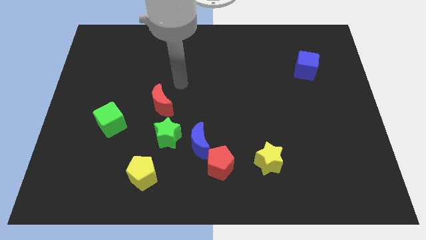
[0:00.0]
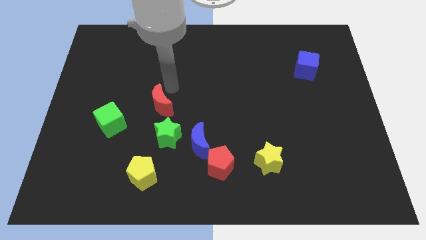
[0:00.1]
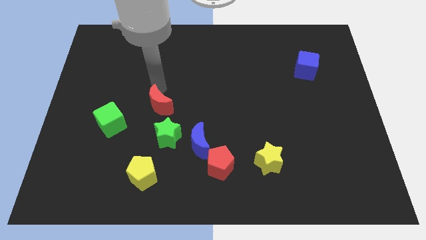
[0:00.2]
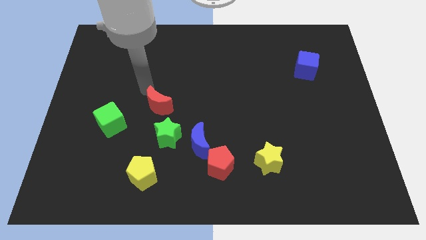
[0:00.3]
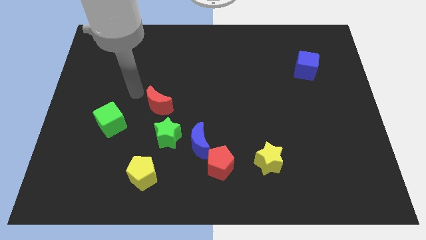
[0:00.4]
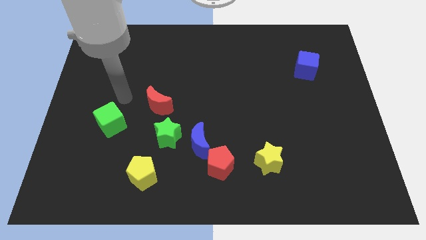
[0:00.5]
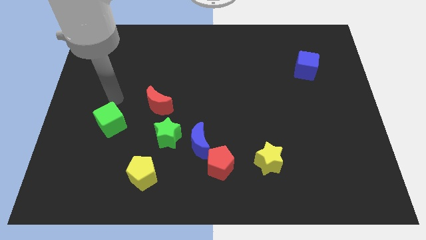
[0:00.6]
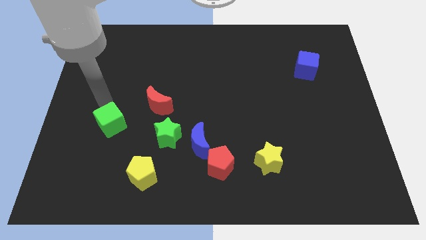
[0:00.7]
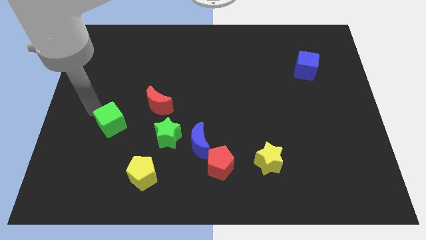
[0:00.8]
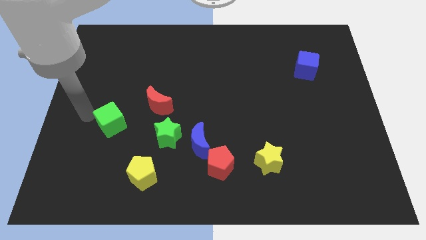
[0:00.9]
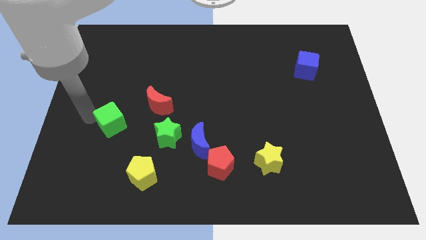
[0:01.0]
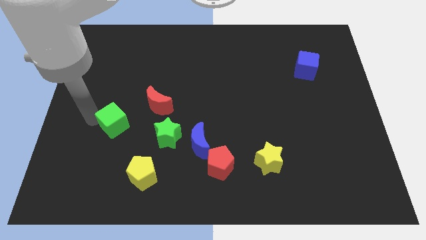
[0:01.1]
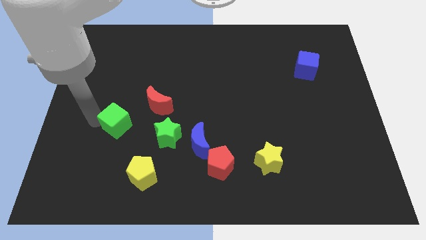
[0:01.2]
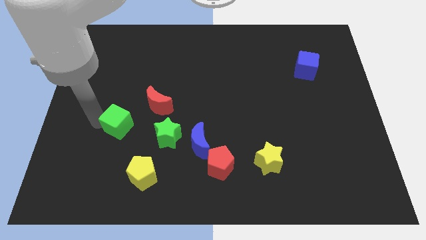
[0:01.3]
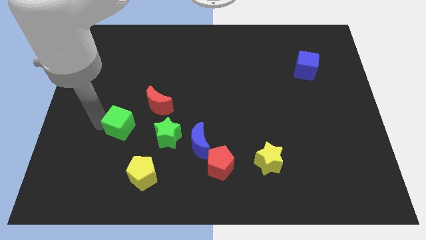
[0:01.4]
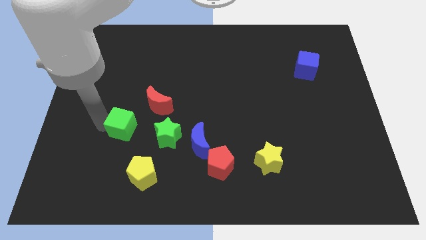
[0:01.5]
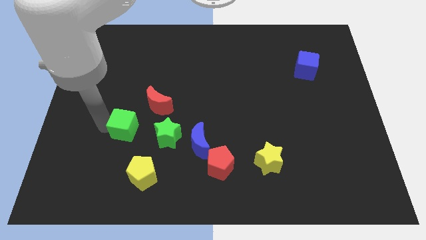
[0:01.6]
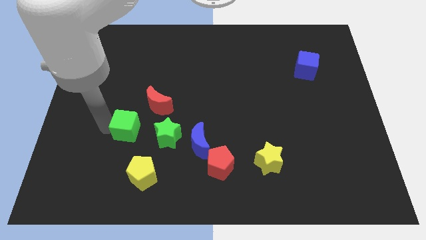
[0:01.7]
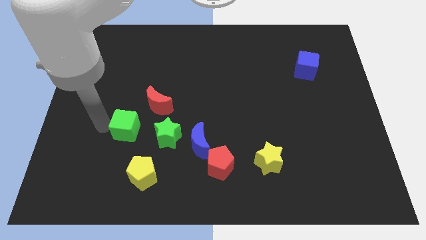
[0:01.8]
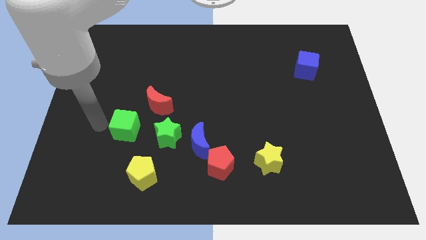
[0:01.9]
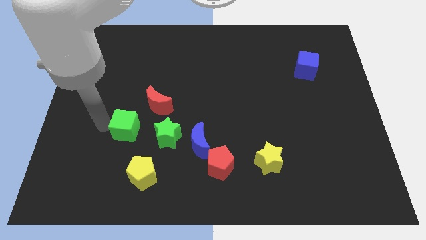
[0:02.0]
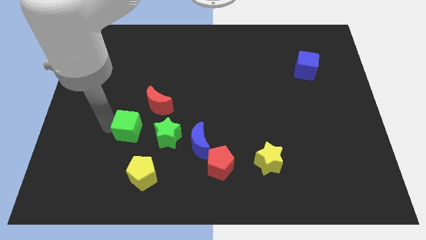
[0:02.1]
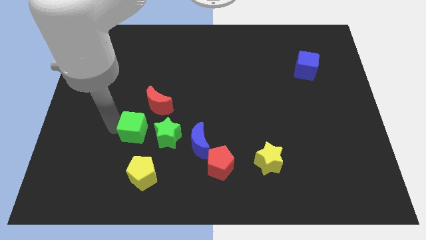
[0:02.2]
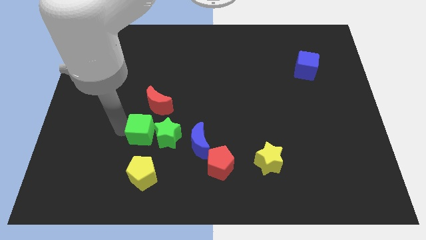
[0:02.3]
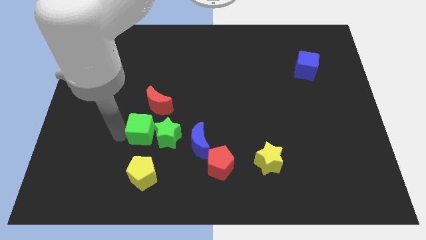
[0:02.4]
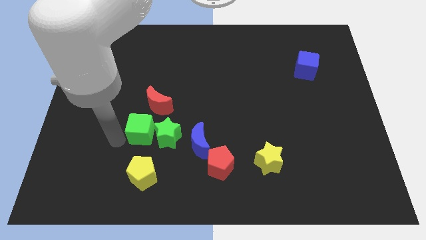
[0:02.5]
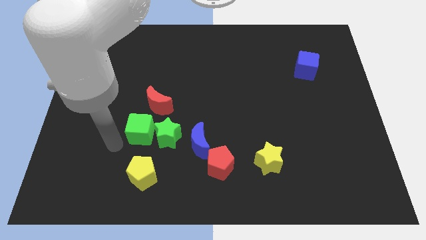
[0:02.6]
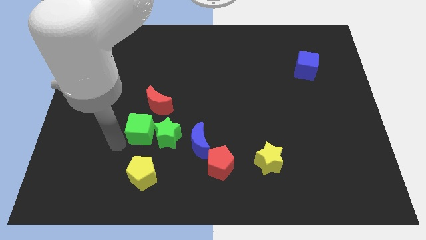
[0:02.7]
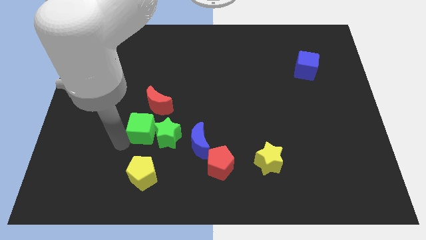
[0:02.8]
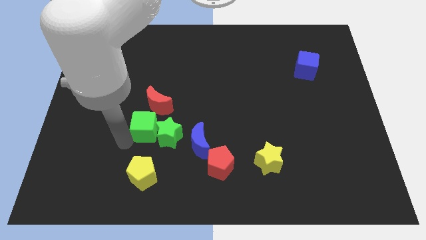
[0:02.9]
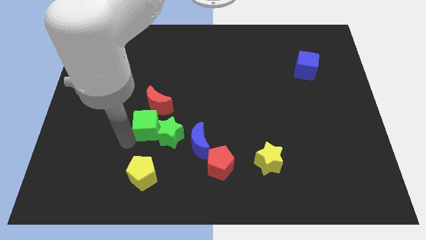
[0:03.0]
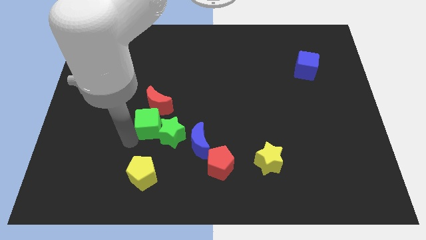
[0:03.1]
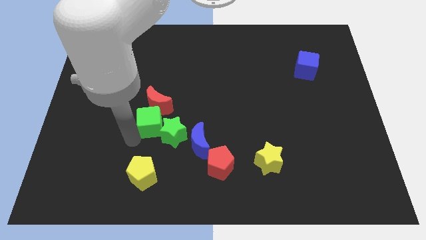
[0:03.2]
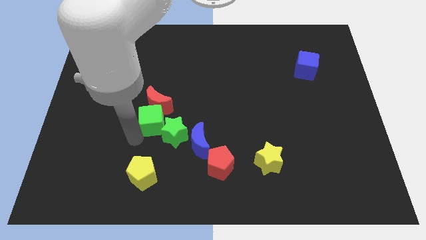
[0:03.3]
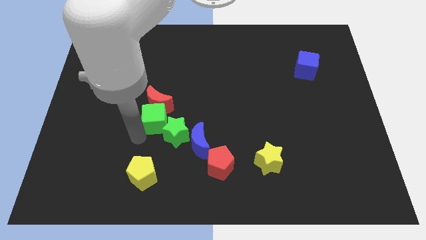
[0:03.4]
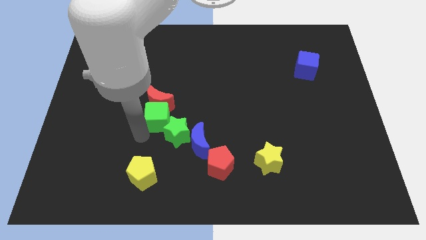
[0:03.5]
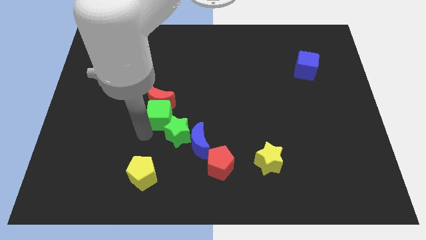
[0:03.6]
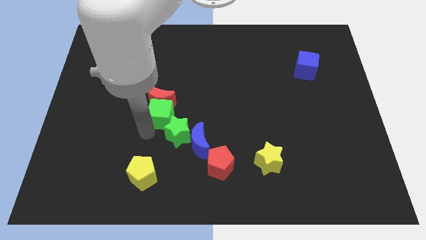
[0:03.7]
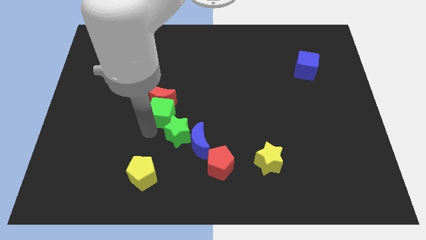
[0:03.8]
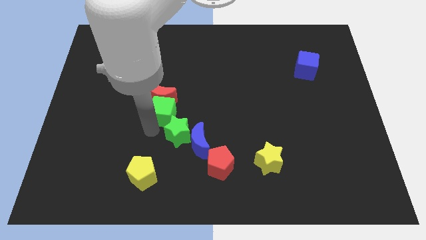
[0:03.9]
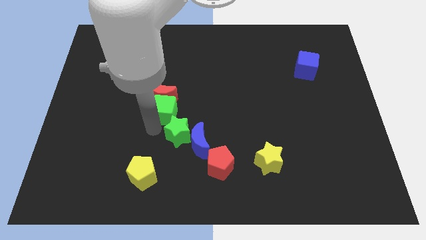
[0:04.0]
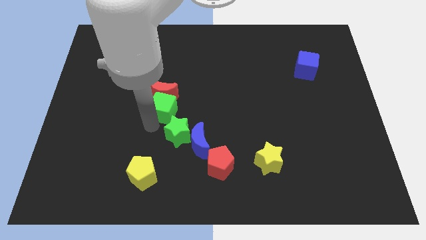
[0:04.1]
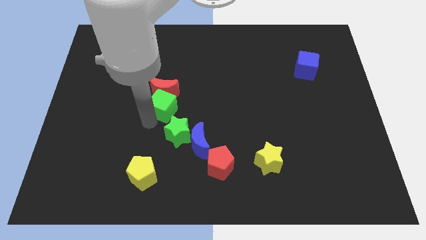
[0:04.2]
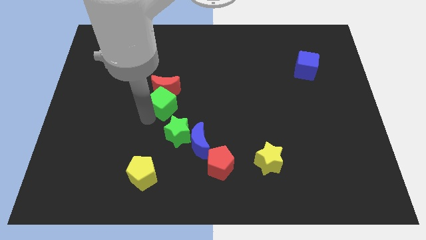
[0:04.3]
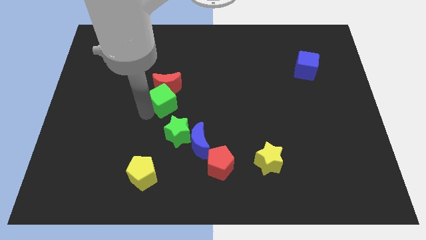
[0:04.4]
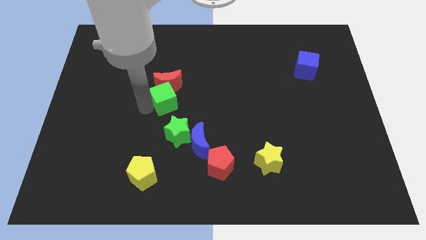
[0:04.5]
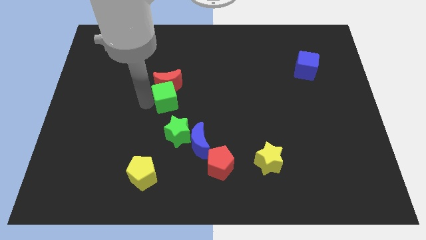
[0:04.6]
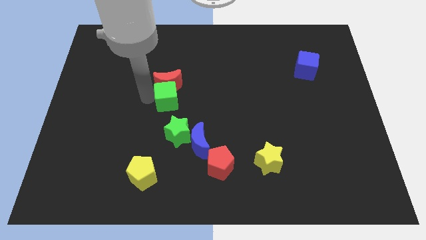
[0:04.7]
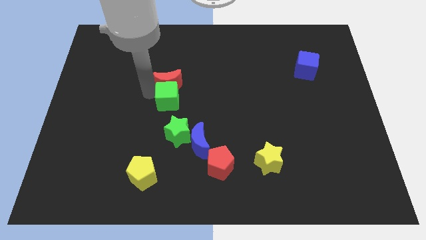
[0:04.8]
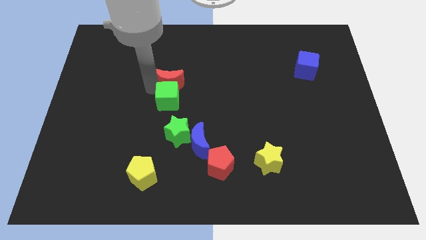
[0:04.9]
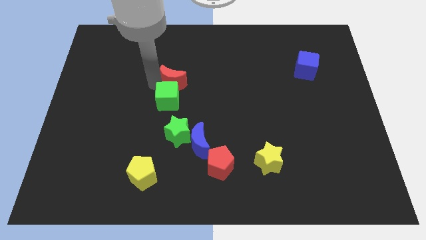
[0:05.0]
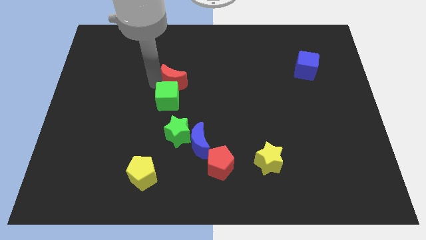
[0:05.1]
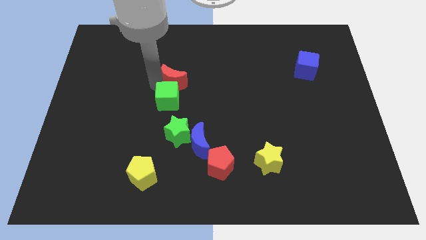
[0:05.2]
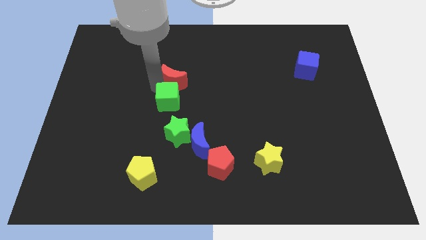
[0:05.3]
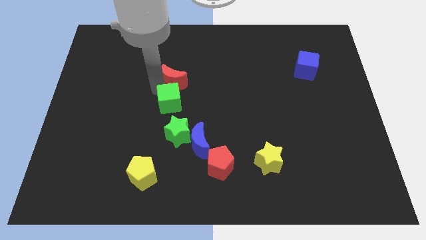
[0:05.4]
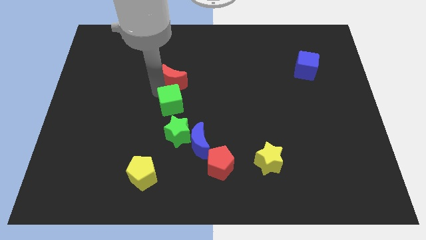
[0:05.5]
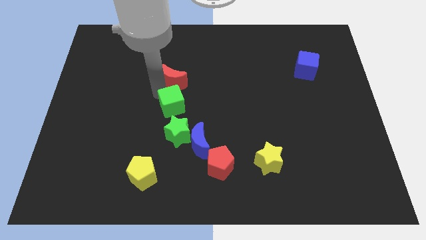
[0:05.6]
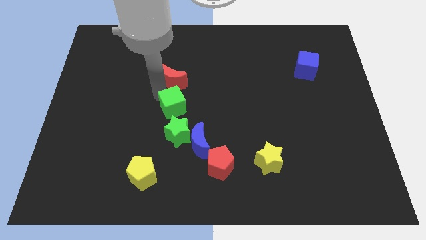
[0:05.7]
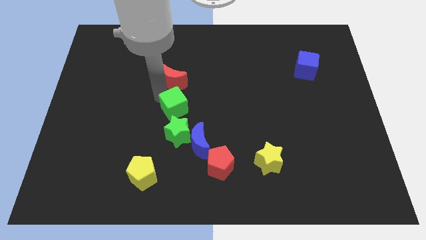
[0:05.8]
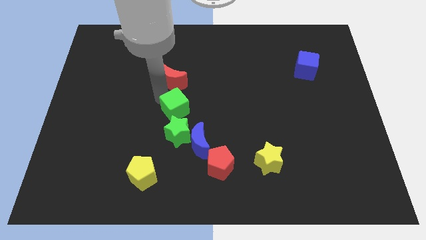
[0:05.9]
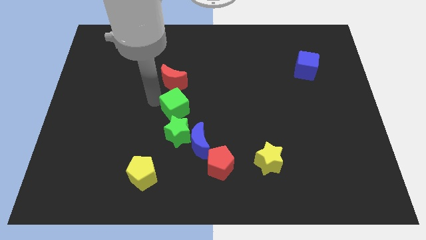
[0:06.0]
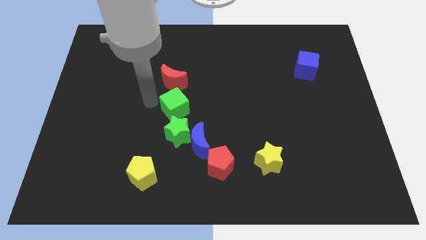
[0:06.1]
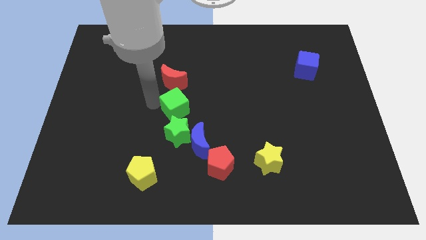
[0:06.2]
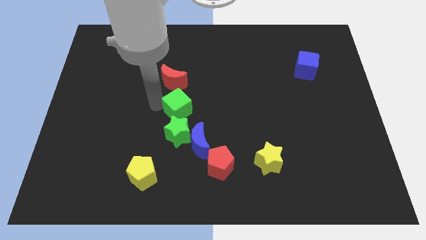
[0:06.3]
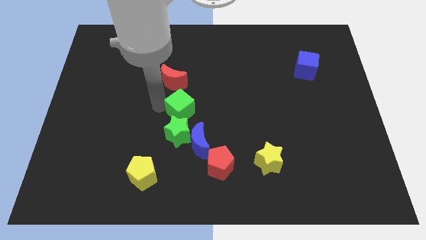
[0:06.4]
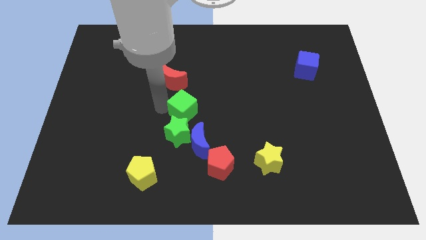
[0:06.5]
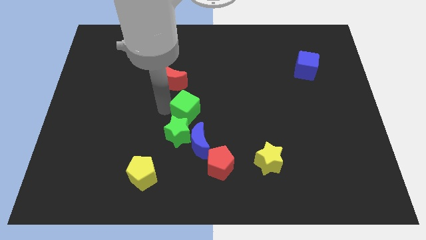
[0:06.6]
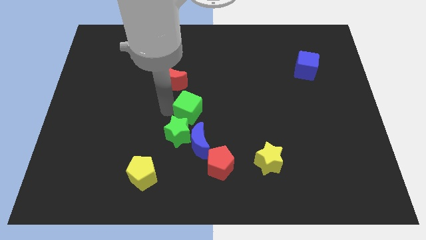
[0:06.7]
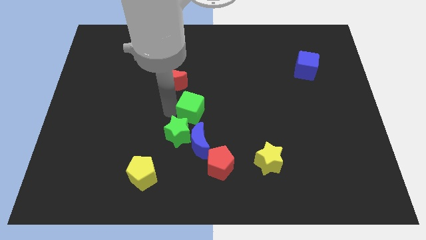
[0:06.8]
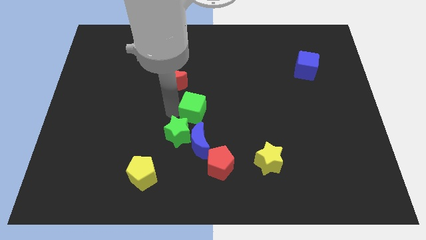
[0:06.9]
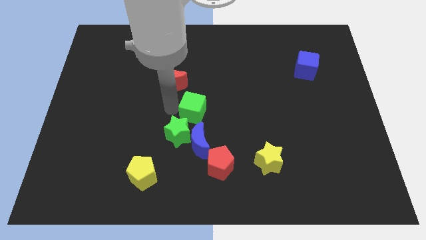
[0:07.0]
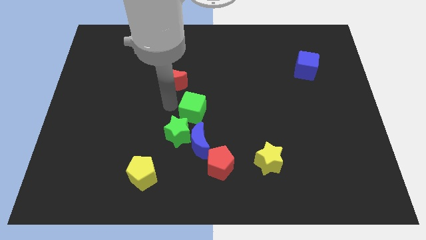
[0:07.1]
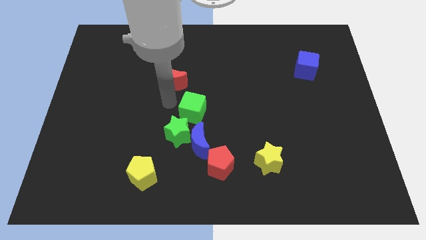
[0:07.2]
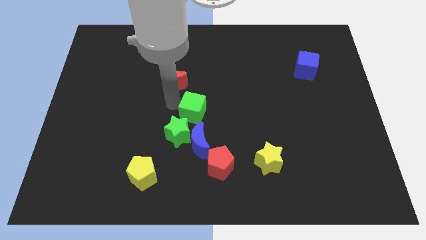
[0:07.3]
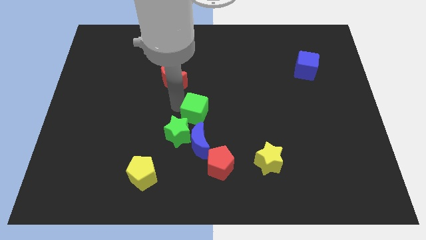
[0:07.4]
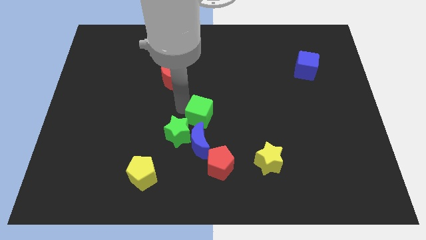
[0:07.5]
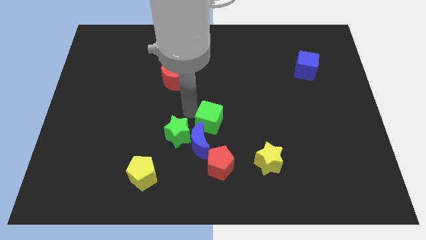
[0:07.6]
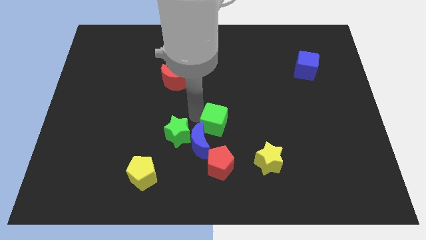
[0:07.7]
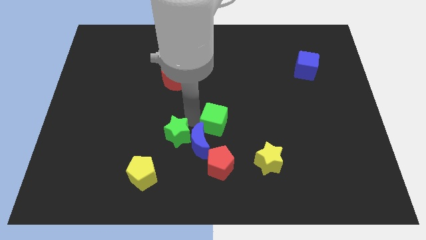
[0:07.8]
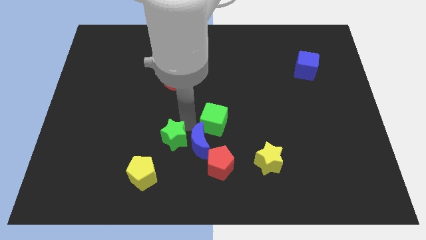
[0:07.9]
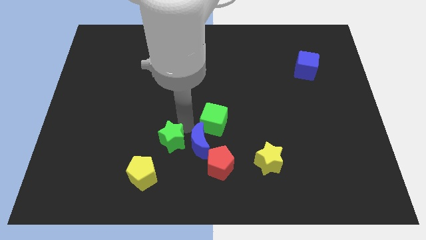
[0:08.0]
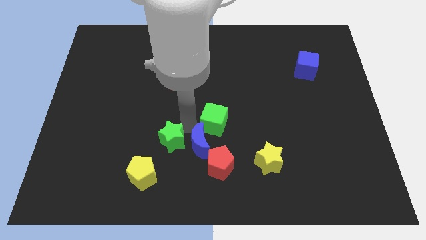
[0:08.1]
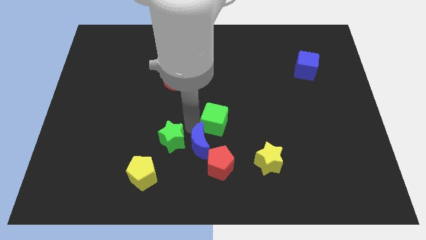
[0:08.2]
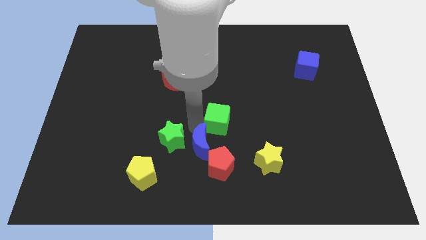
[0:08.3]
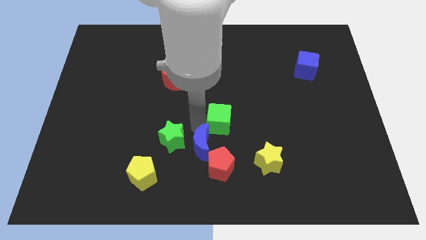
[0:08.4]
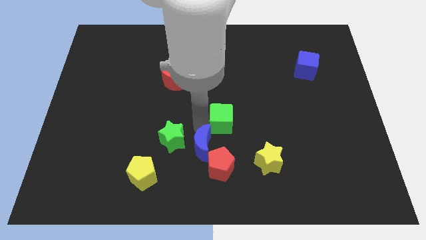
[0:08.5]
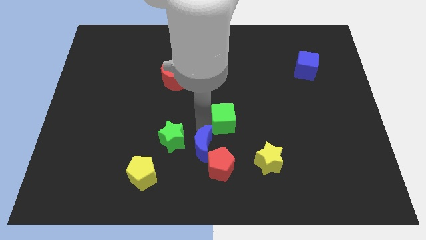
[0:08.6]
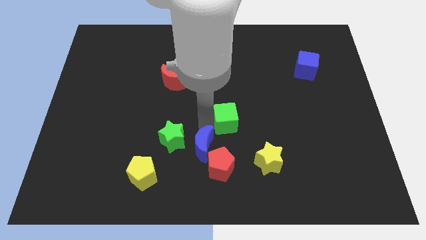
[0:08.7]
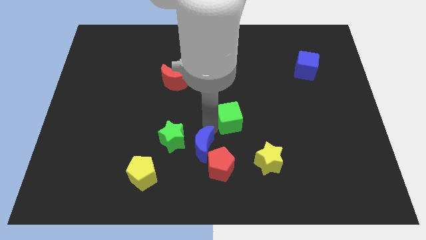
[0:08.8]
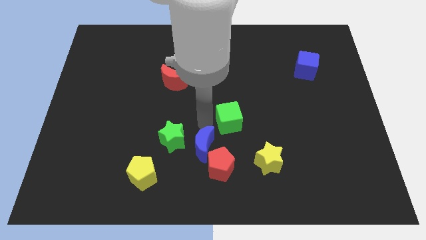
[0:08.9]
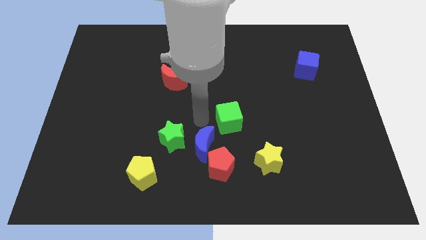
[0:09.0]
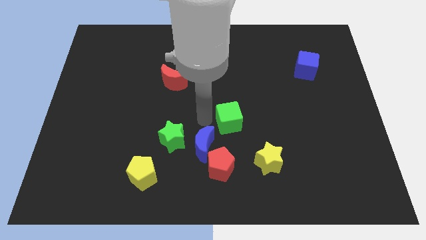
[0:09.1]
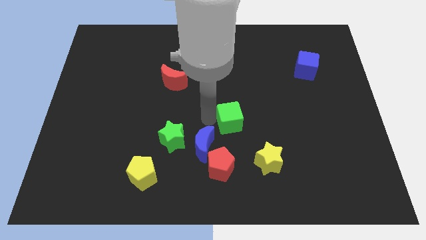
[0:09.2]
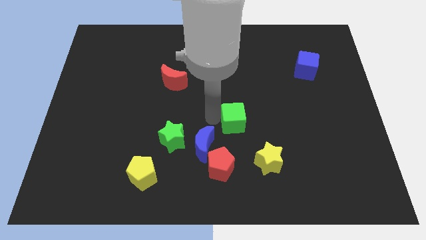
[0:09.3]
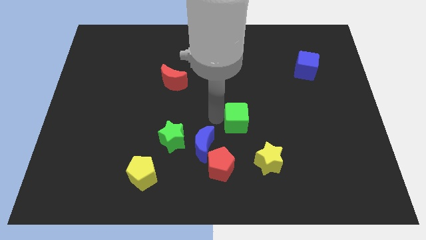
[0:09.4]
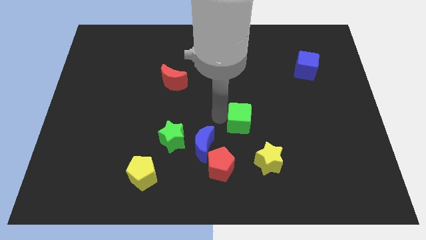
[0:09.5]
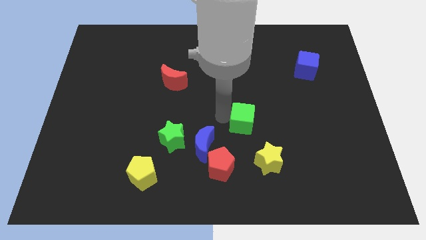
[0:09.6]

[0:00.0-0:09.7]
slide the green cube to the top side of the yellow star
